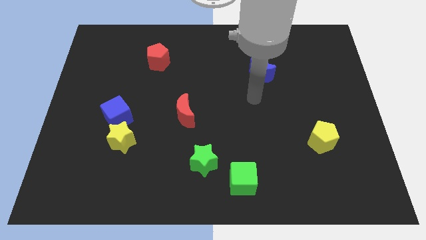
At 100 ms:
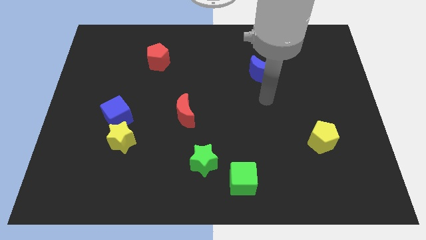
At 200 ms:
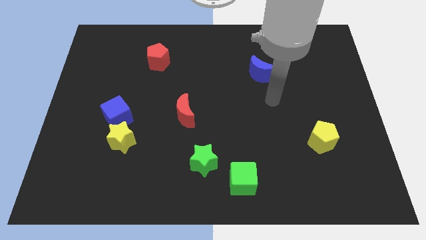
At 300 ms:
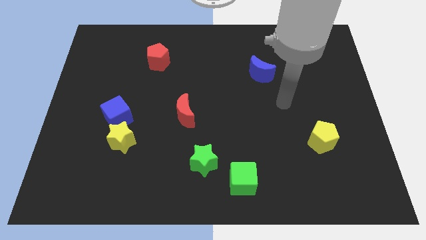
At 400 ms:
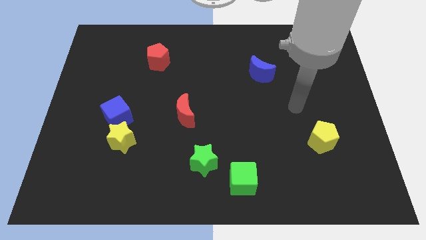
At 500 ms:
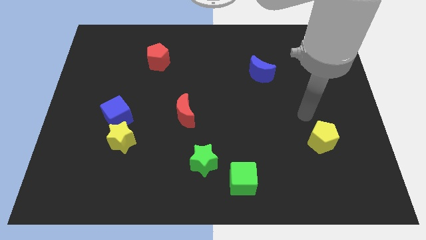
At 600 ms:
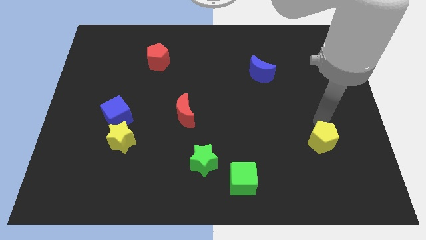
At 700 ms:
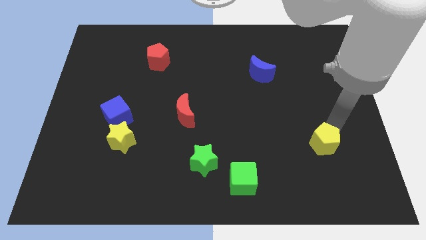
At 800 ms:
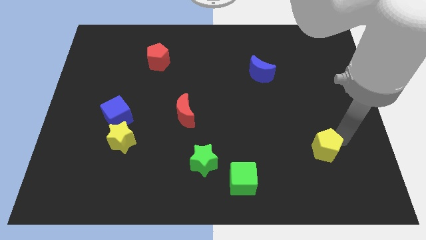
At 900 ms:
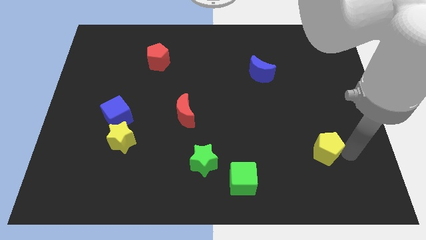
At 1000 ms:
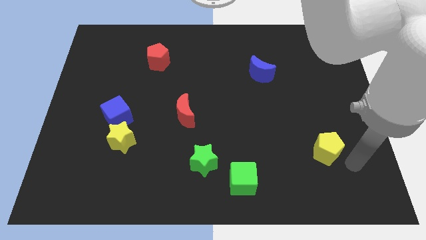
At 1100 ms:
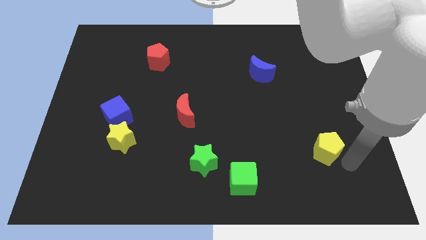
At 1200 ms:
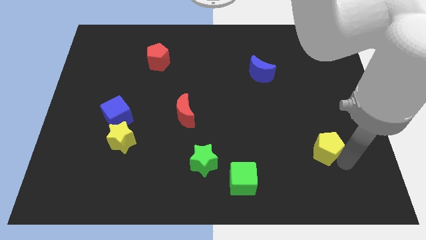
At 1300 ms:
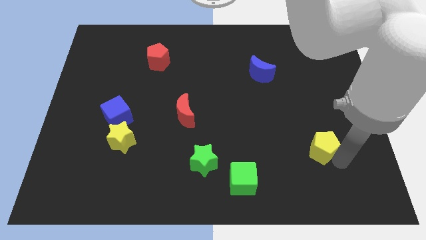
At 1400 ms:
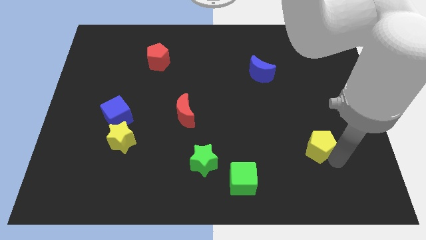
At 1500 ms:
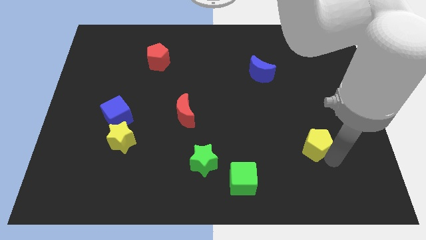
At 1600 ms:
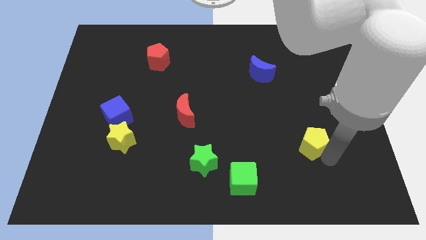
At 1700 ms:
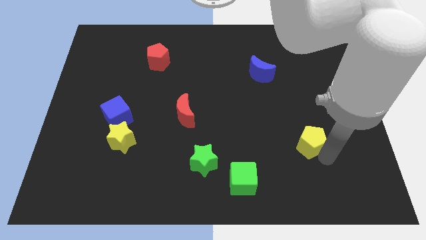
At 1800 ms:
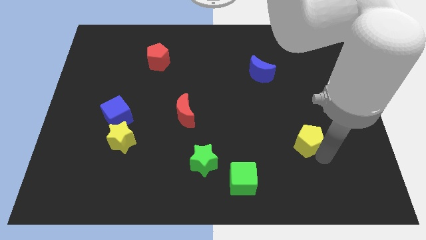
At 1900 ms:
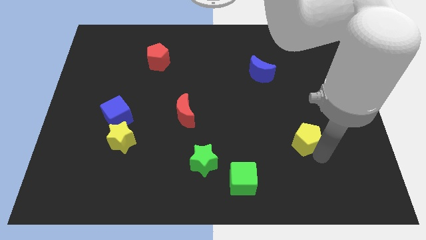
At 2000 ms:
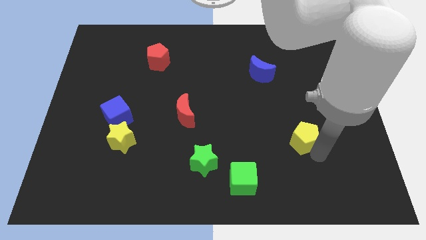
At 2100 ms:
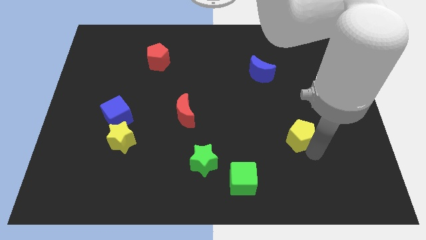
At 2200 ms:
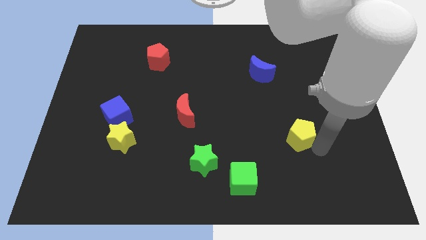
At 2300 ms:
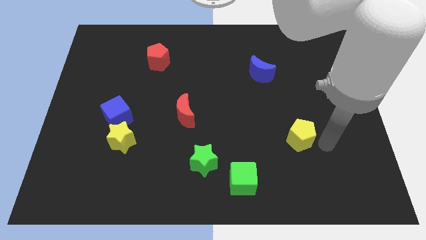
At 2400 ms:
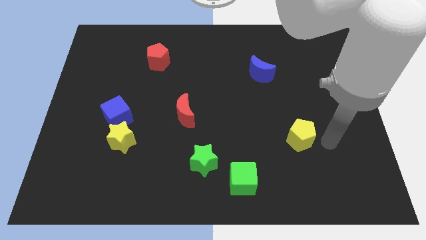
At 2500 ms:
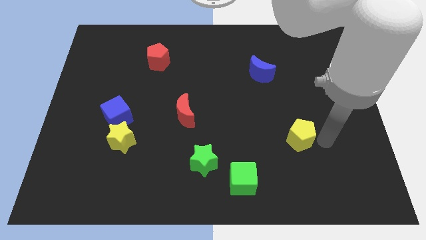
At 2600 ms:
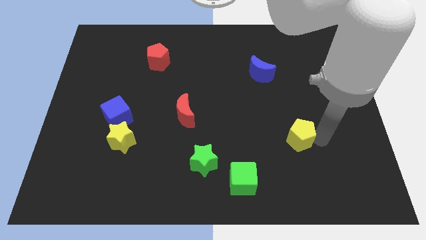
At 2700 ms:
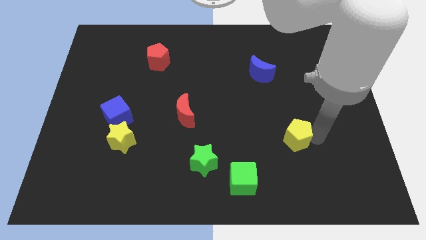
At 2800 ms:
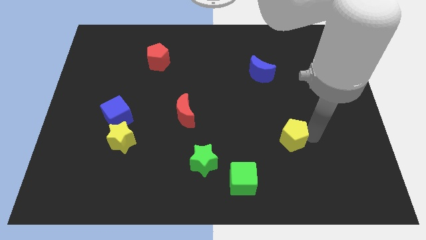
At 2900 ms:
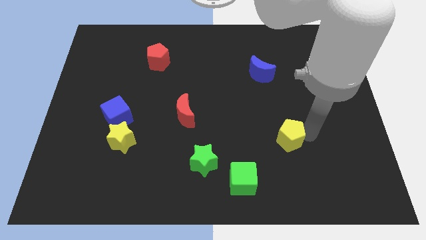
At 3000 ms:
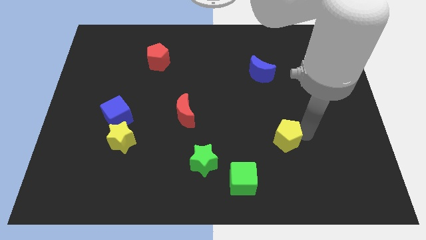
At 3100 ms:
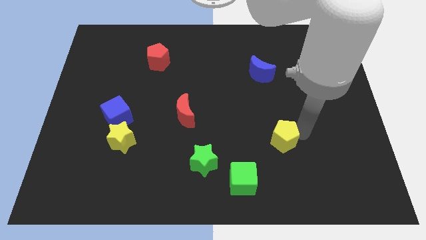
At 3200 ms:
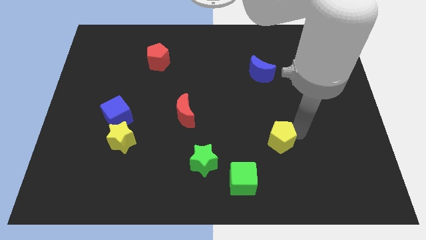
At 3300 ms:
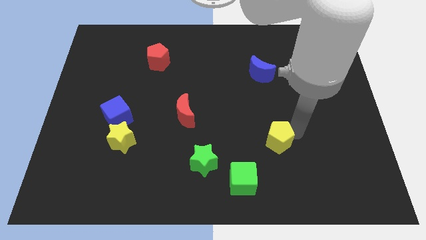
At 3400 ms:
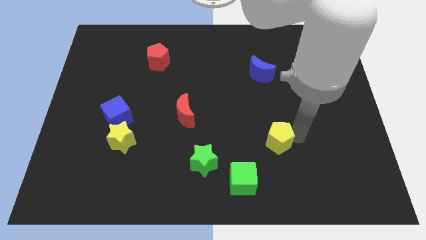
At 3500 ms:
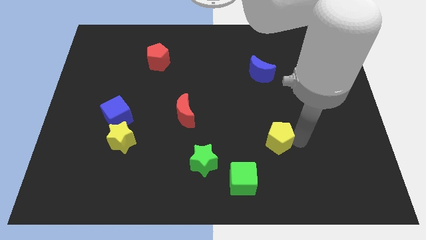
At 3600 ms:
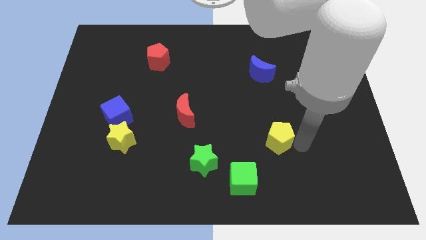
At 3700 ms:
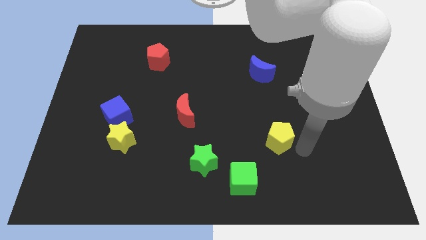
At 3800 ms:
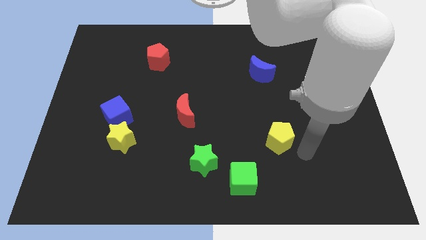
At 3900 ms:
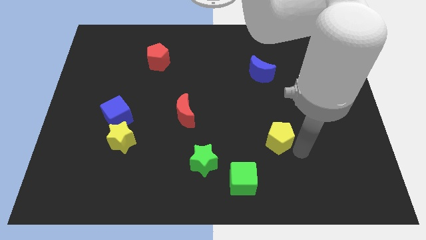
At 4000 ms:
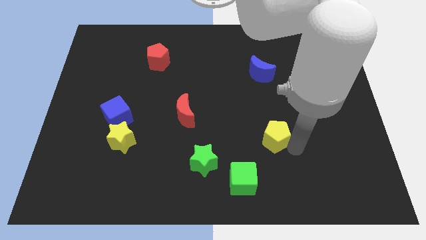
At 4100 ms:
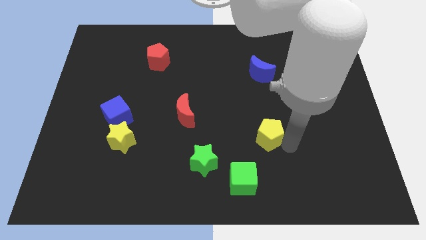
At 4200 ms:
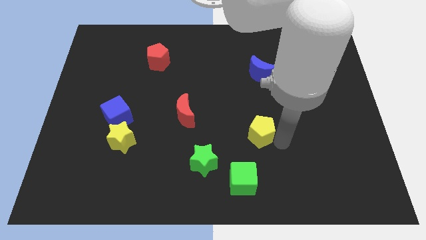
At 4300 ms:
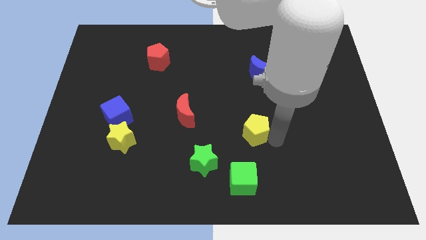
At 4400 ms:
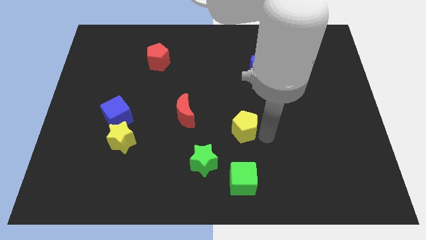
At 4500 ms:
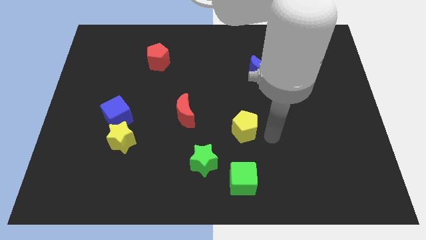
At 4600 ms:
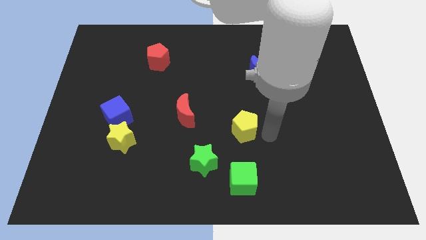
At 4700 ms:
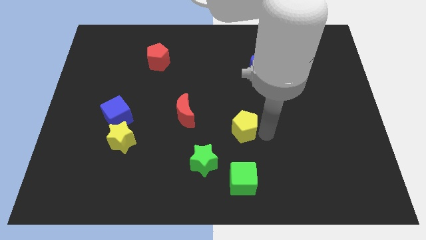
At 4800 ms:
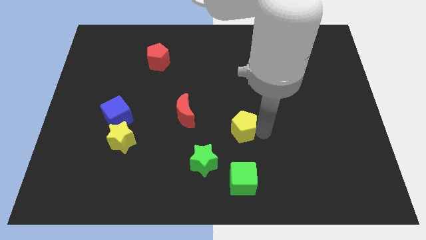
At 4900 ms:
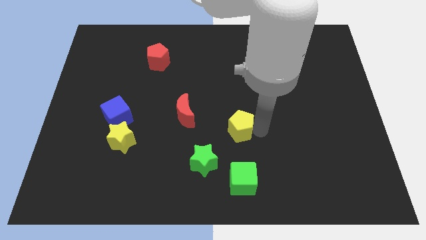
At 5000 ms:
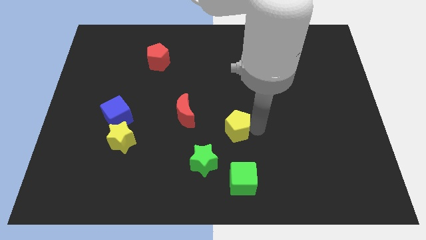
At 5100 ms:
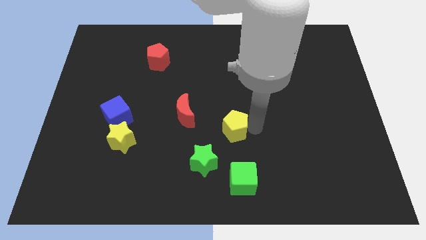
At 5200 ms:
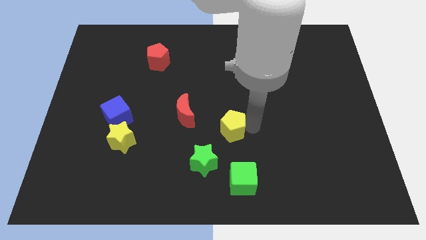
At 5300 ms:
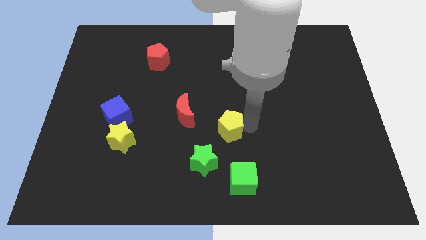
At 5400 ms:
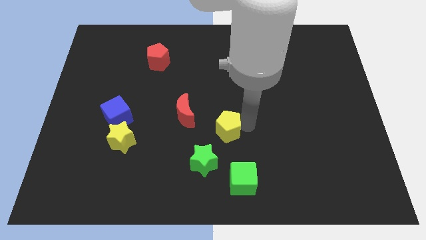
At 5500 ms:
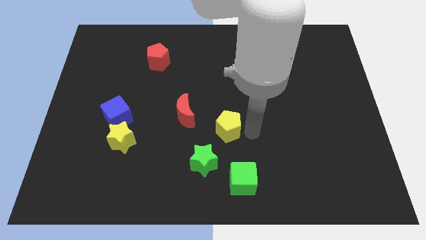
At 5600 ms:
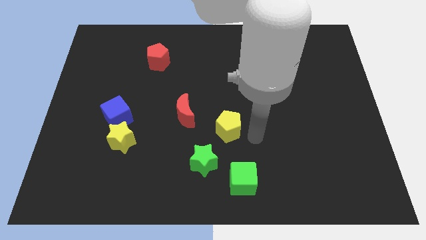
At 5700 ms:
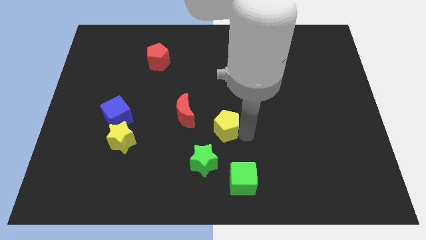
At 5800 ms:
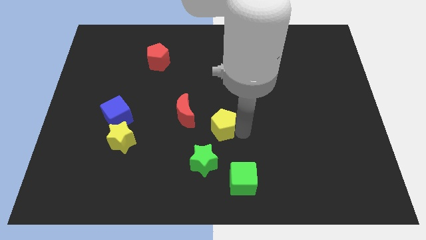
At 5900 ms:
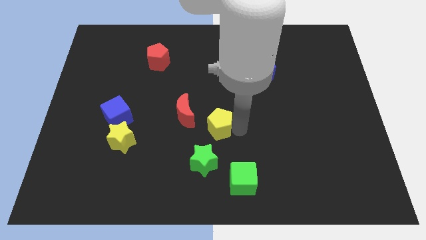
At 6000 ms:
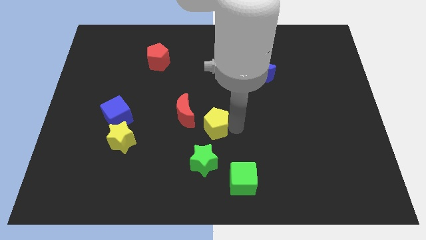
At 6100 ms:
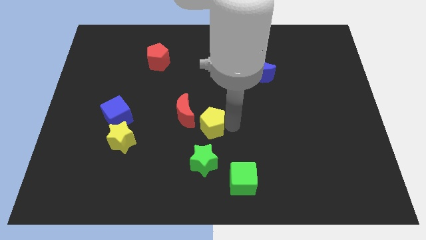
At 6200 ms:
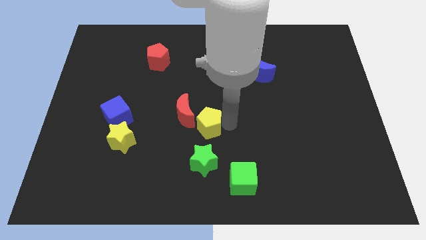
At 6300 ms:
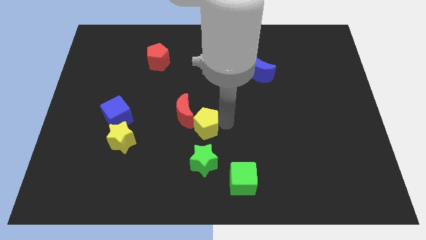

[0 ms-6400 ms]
move the yellow pentagon next to the red moon
